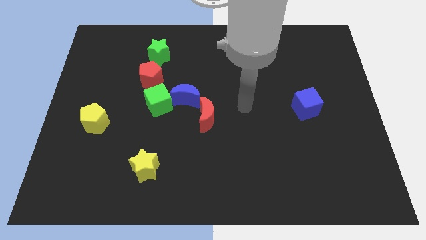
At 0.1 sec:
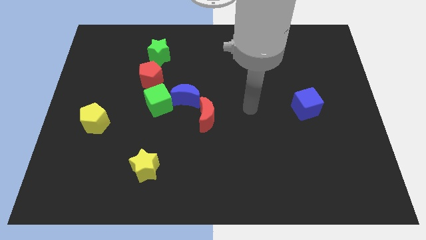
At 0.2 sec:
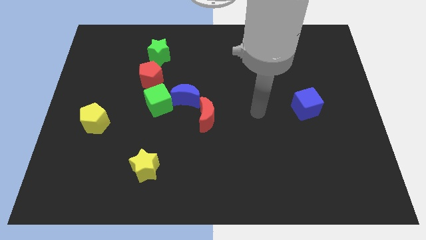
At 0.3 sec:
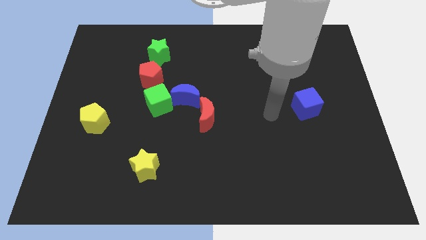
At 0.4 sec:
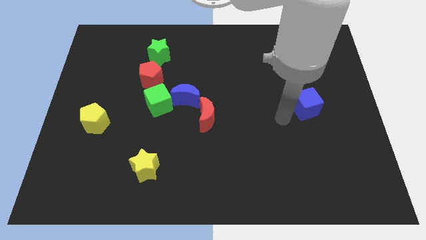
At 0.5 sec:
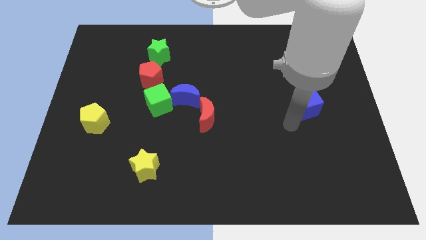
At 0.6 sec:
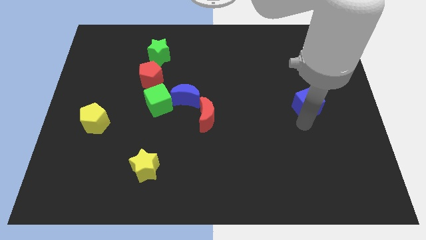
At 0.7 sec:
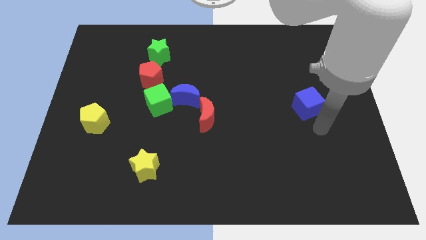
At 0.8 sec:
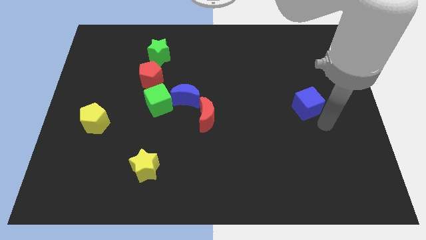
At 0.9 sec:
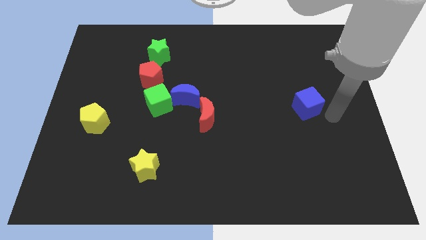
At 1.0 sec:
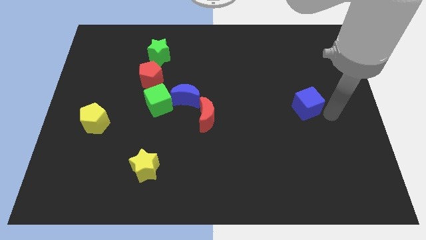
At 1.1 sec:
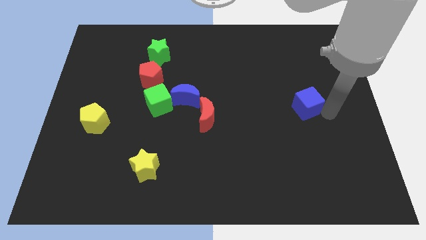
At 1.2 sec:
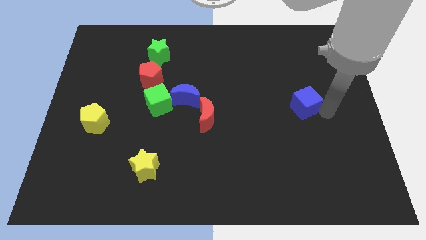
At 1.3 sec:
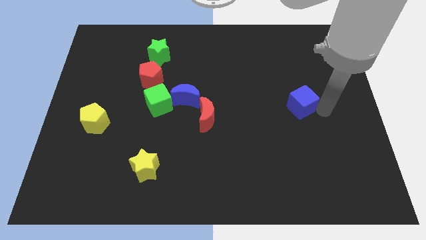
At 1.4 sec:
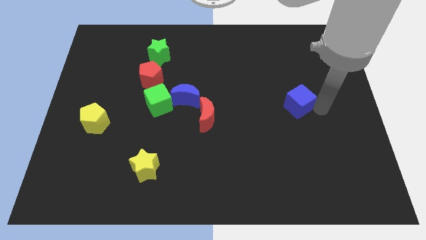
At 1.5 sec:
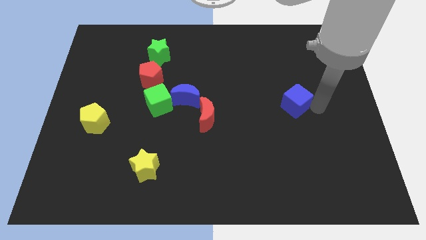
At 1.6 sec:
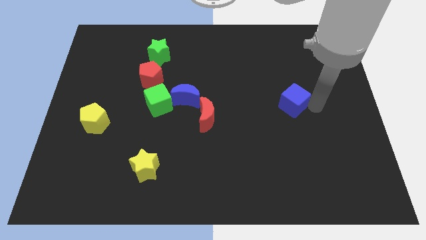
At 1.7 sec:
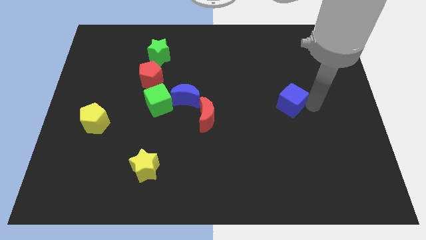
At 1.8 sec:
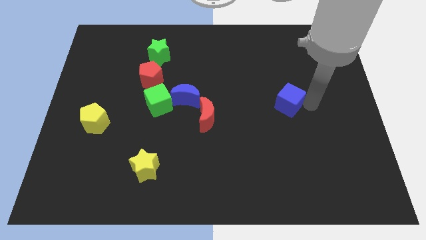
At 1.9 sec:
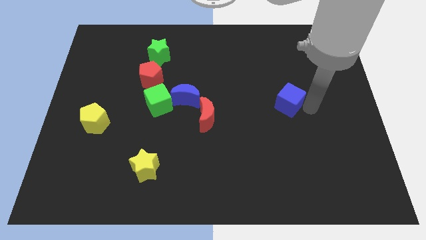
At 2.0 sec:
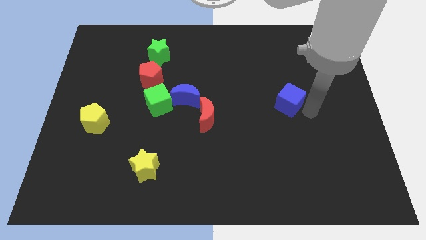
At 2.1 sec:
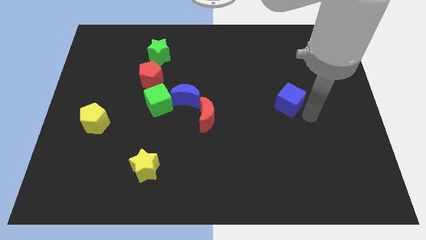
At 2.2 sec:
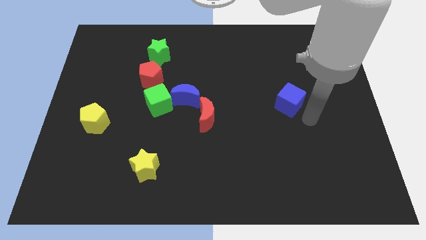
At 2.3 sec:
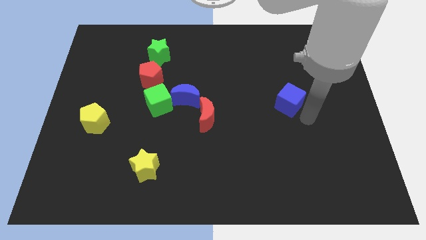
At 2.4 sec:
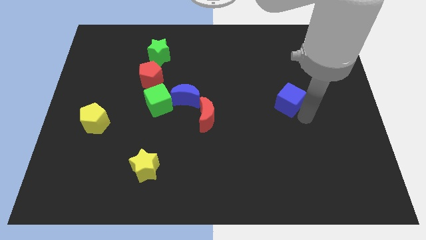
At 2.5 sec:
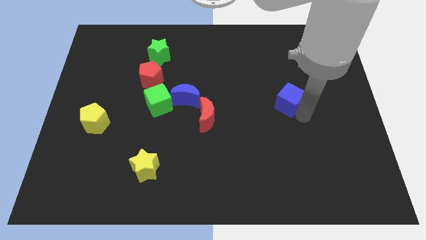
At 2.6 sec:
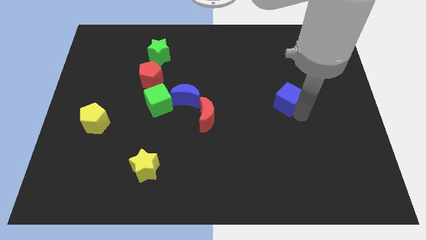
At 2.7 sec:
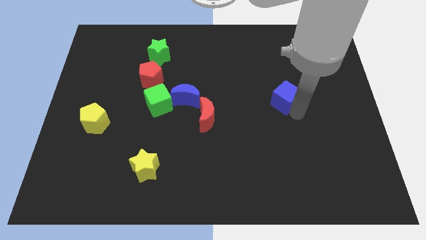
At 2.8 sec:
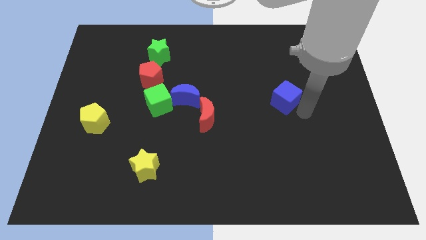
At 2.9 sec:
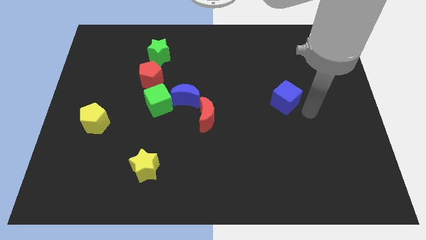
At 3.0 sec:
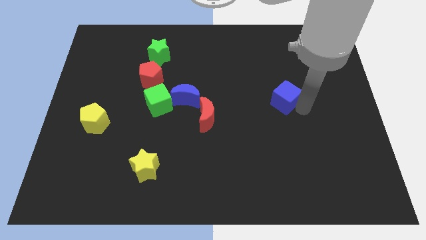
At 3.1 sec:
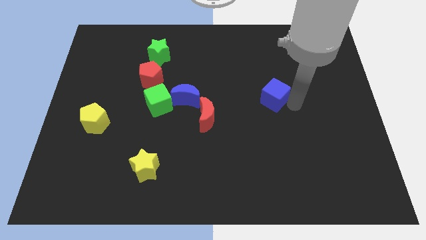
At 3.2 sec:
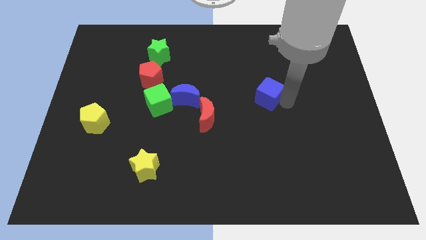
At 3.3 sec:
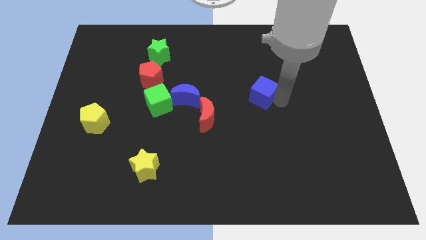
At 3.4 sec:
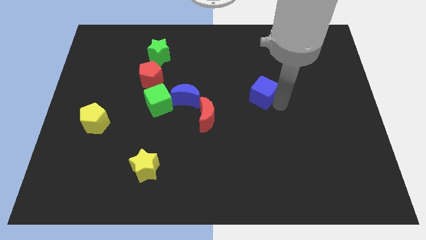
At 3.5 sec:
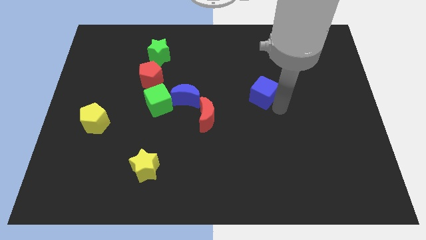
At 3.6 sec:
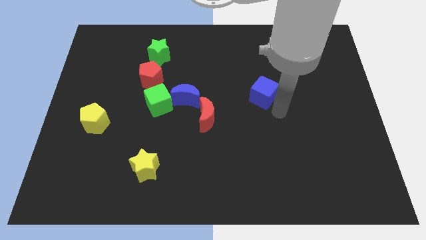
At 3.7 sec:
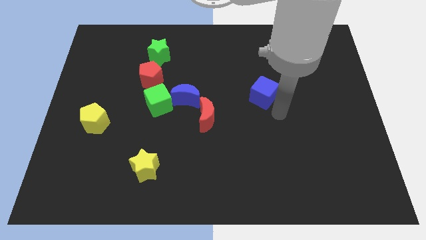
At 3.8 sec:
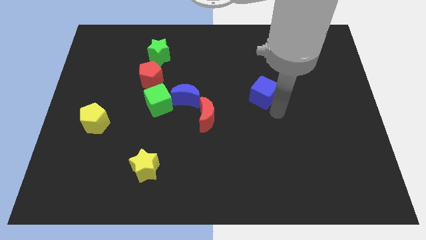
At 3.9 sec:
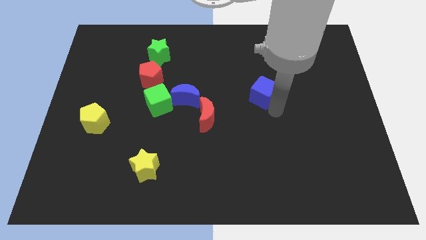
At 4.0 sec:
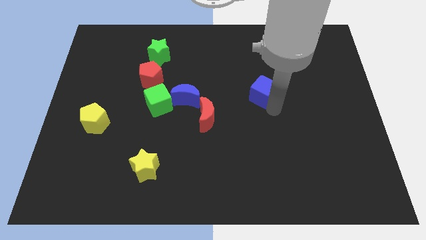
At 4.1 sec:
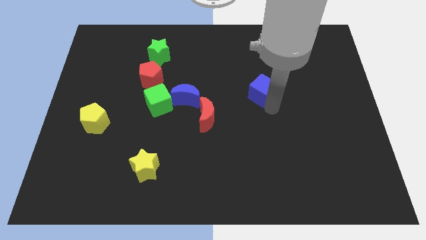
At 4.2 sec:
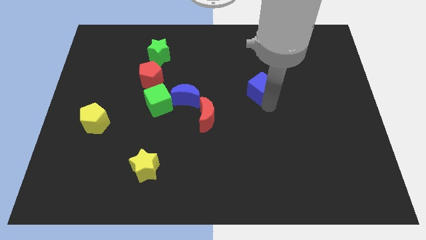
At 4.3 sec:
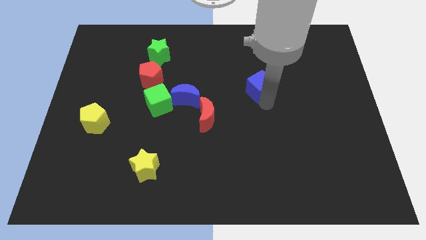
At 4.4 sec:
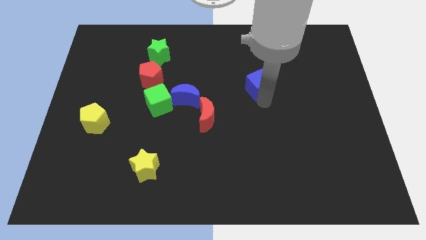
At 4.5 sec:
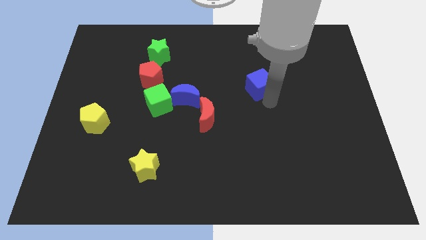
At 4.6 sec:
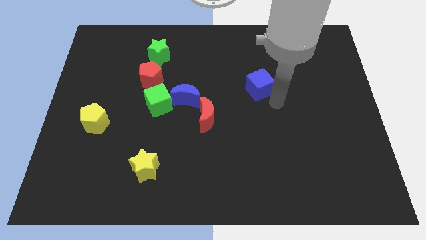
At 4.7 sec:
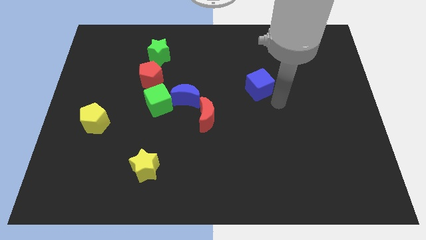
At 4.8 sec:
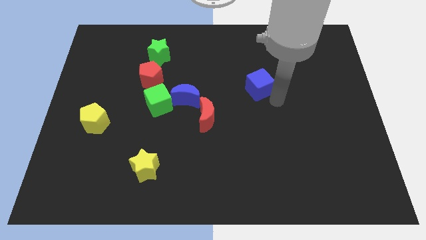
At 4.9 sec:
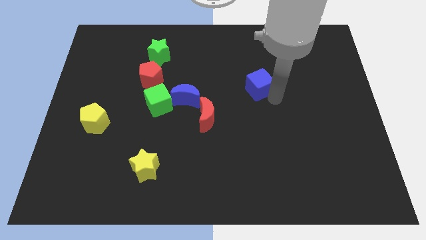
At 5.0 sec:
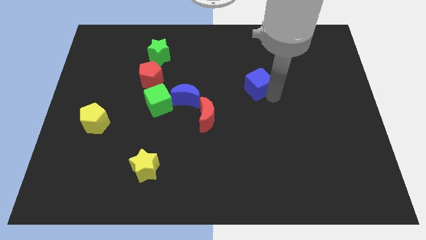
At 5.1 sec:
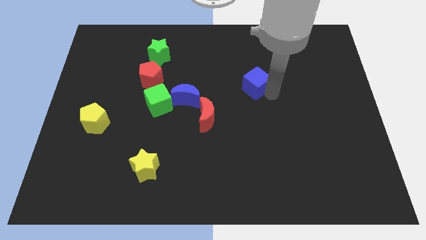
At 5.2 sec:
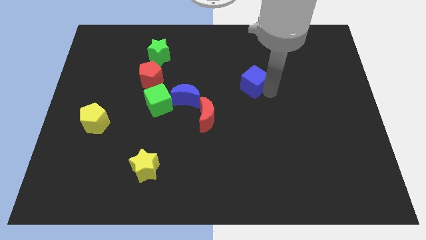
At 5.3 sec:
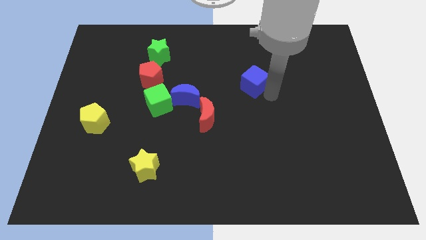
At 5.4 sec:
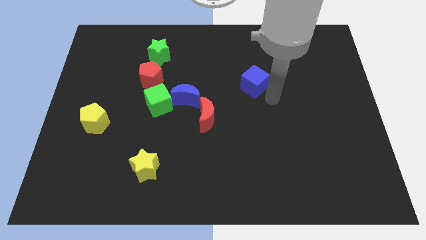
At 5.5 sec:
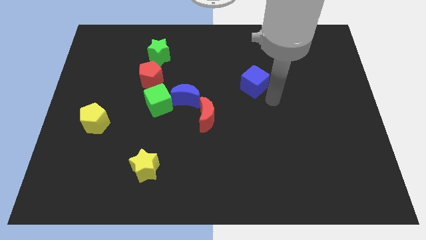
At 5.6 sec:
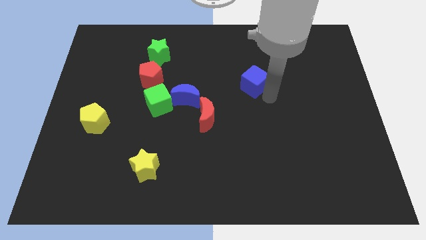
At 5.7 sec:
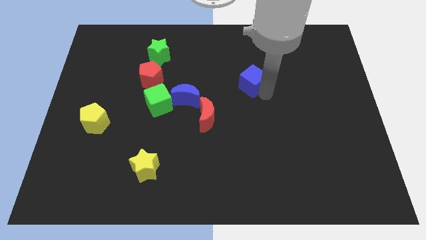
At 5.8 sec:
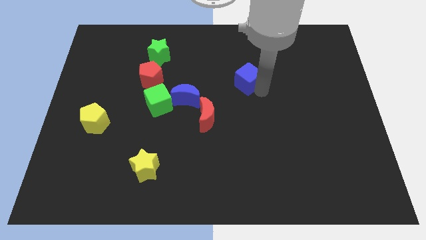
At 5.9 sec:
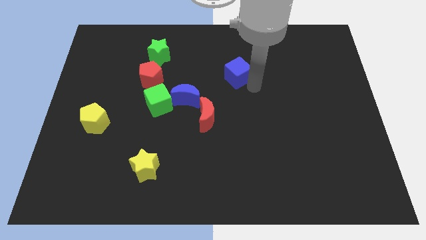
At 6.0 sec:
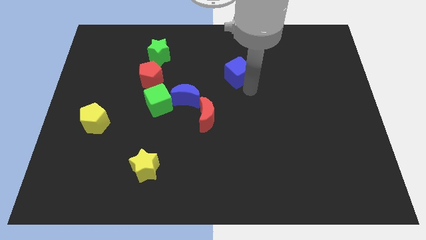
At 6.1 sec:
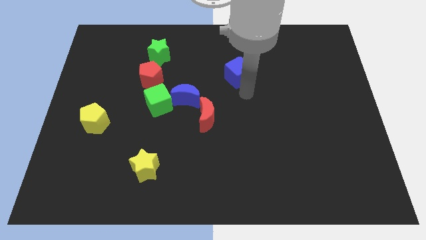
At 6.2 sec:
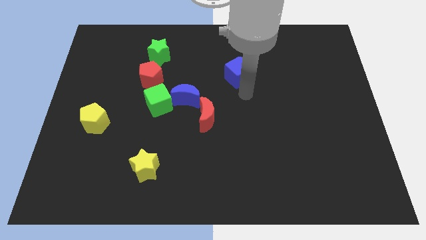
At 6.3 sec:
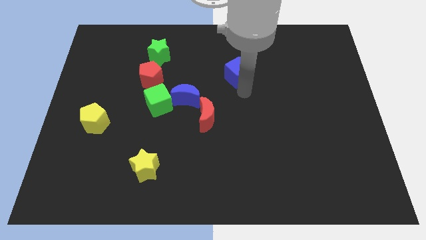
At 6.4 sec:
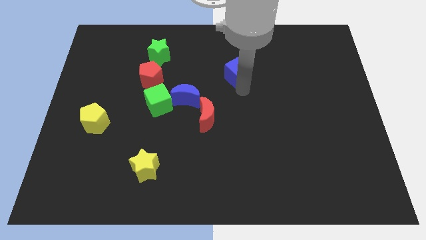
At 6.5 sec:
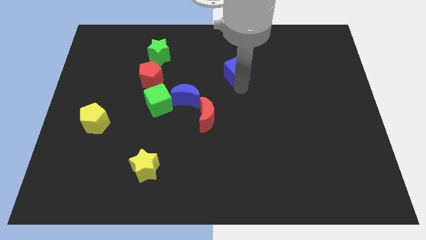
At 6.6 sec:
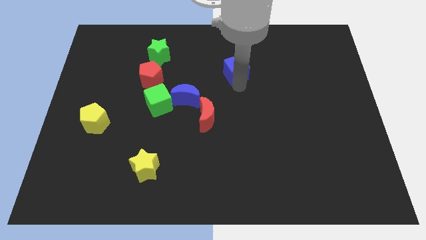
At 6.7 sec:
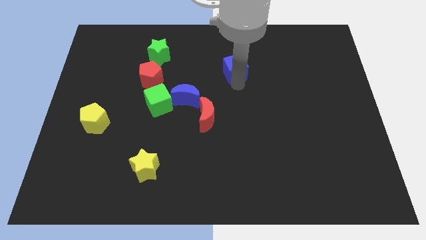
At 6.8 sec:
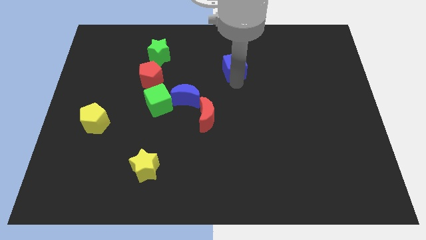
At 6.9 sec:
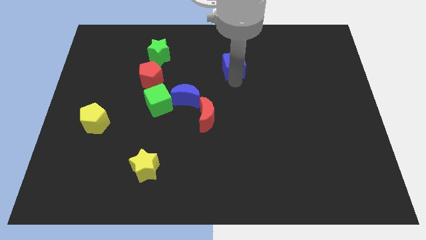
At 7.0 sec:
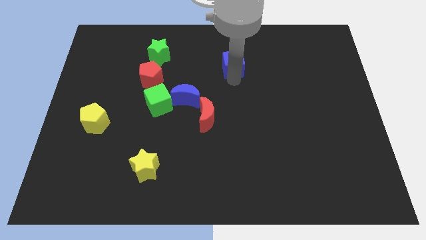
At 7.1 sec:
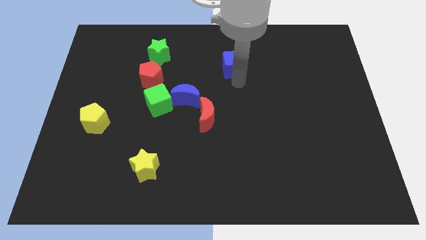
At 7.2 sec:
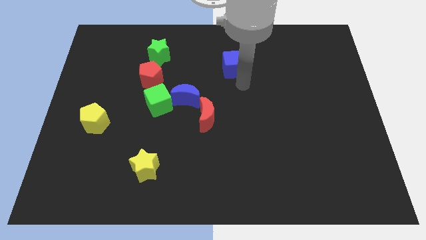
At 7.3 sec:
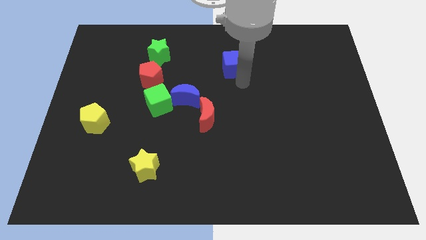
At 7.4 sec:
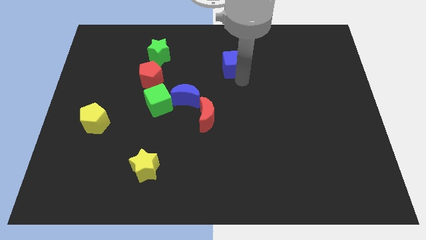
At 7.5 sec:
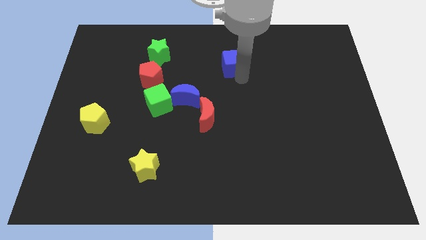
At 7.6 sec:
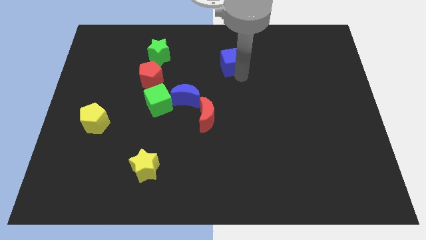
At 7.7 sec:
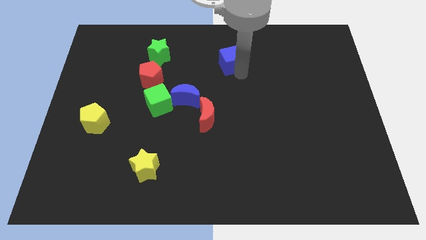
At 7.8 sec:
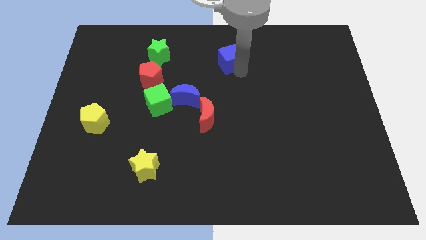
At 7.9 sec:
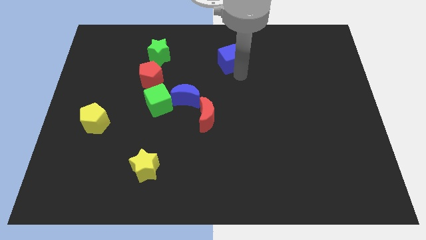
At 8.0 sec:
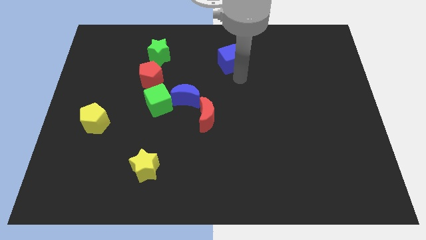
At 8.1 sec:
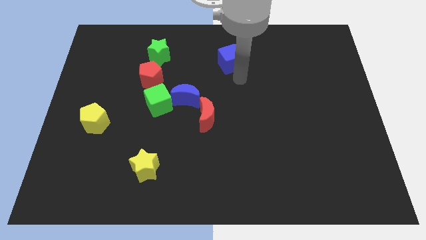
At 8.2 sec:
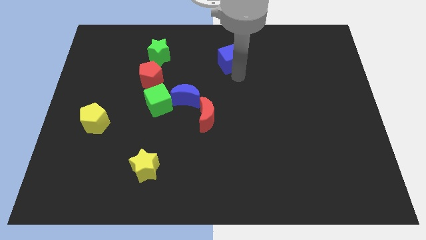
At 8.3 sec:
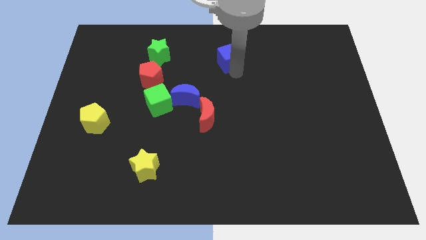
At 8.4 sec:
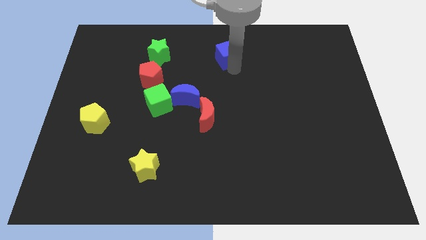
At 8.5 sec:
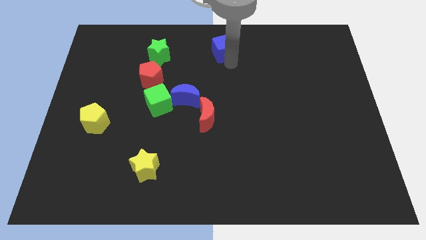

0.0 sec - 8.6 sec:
slide the blue cube to the top side
